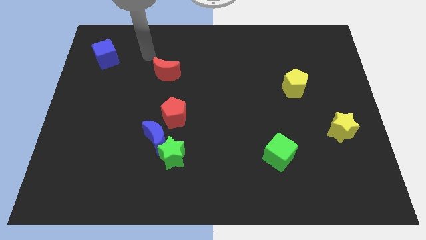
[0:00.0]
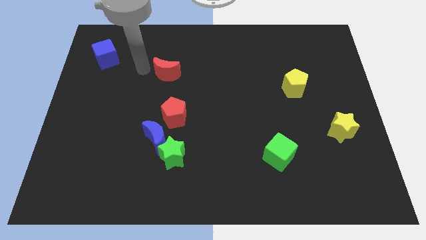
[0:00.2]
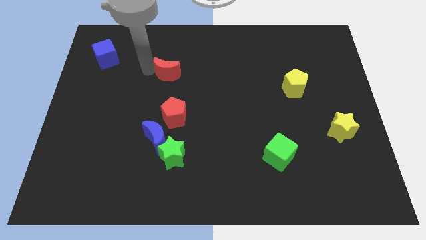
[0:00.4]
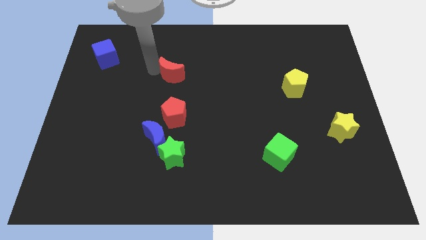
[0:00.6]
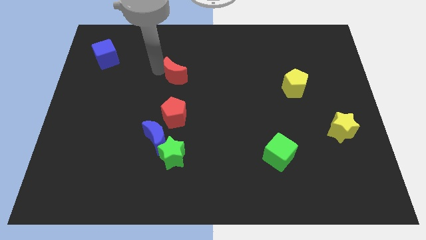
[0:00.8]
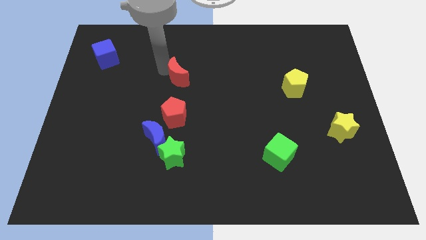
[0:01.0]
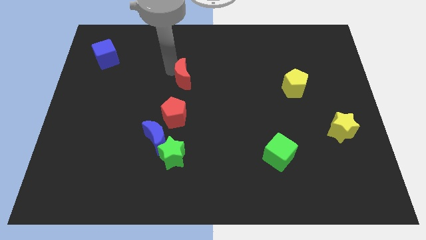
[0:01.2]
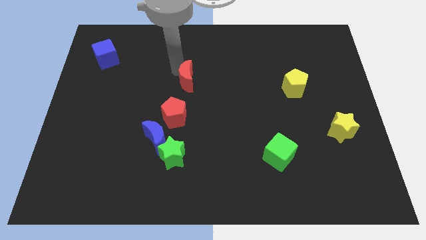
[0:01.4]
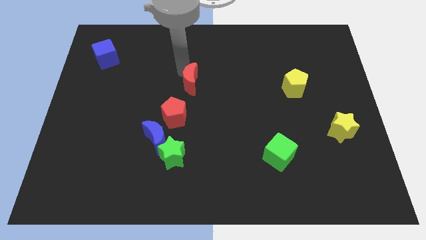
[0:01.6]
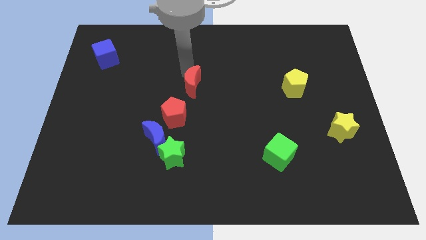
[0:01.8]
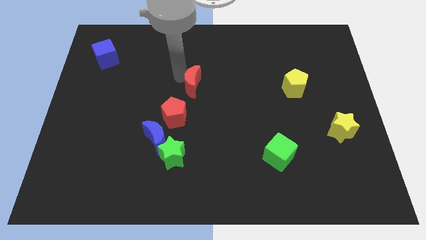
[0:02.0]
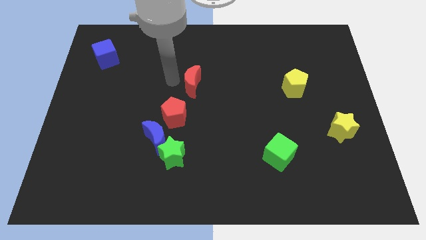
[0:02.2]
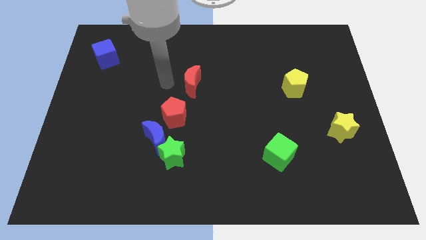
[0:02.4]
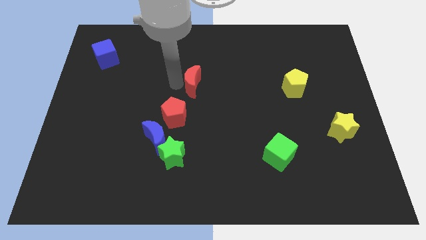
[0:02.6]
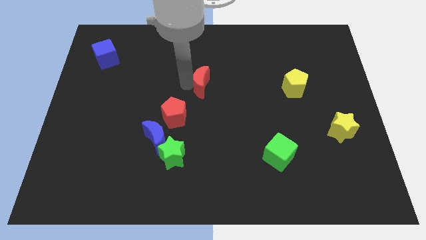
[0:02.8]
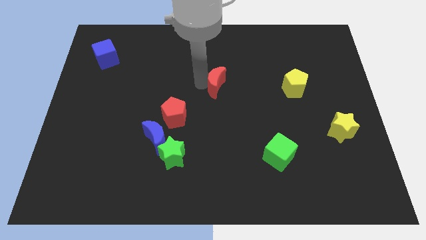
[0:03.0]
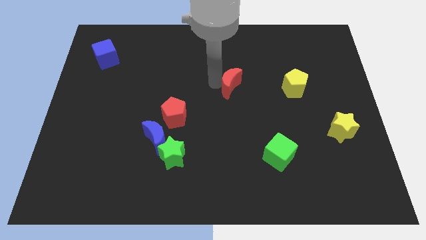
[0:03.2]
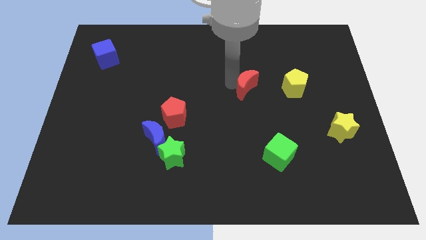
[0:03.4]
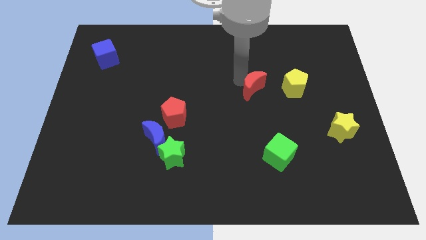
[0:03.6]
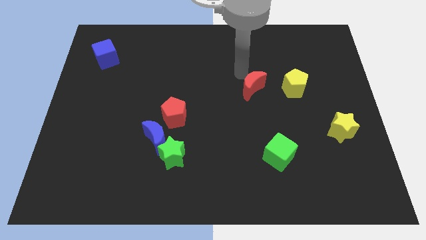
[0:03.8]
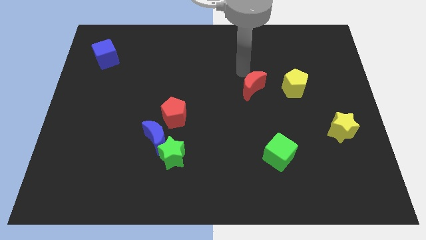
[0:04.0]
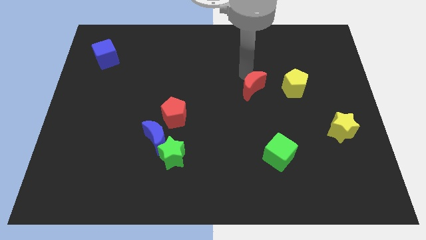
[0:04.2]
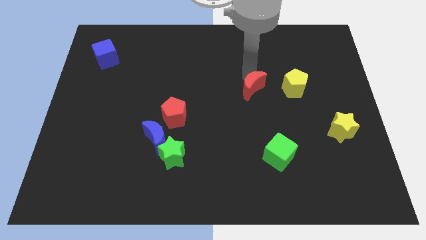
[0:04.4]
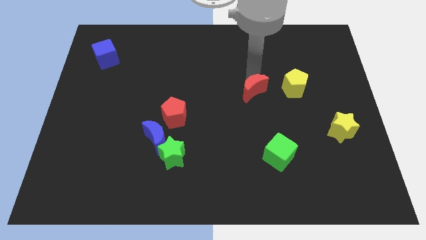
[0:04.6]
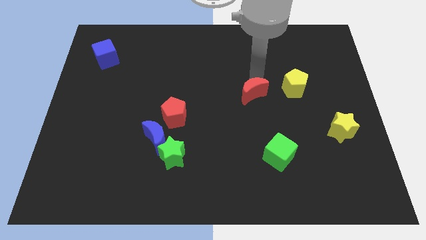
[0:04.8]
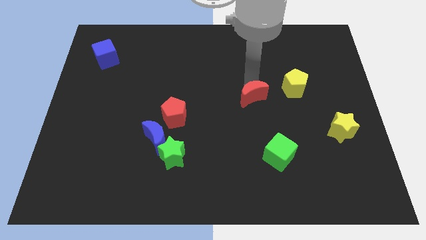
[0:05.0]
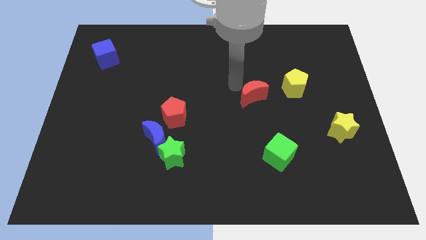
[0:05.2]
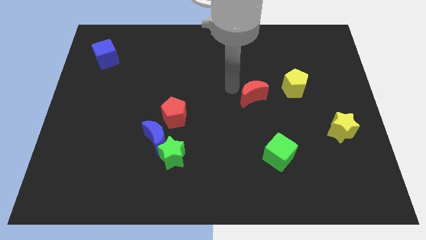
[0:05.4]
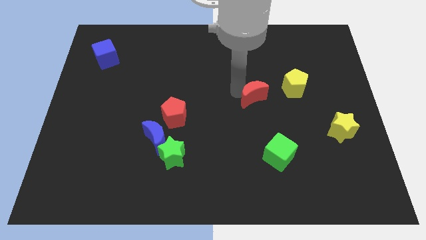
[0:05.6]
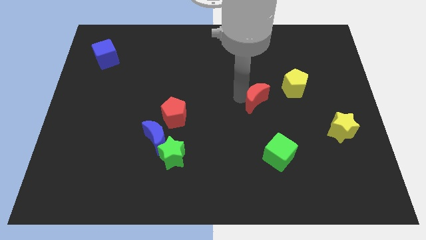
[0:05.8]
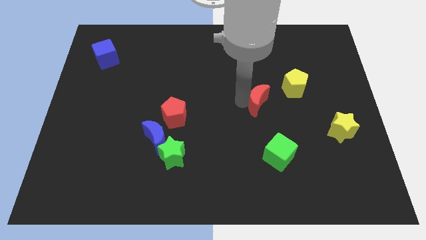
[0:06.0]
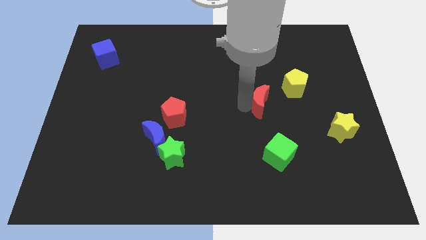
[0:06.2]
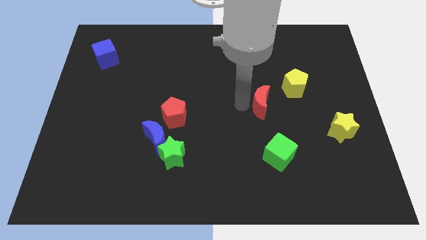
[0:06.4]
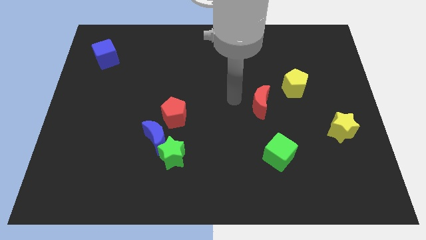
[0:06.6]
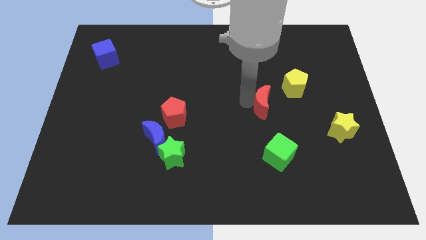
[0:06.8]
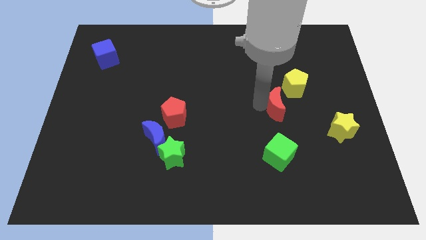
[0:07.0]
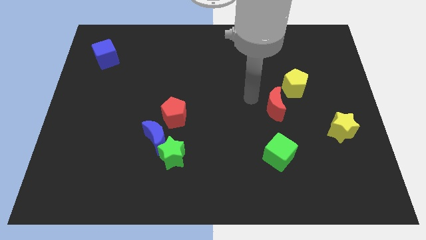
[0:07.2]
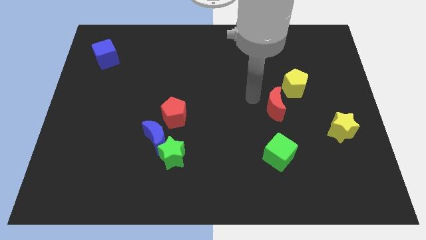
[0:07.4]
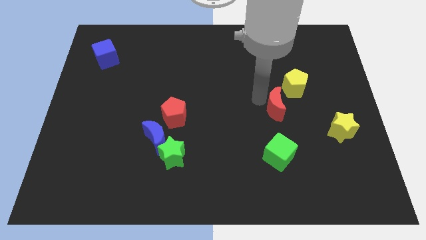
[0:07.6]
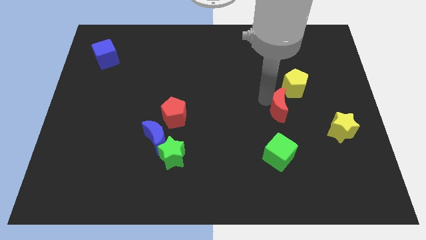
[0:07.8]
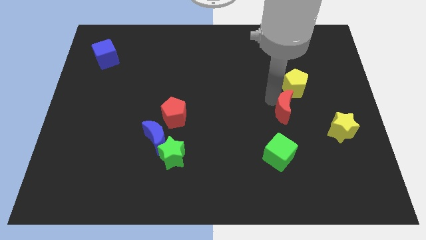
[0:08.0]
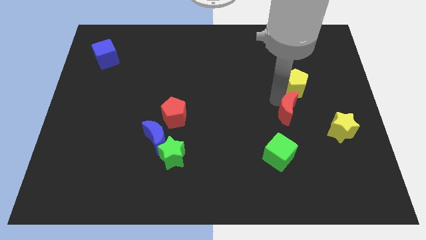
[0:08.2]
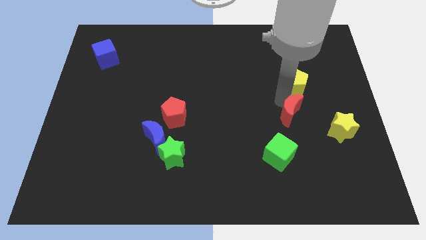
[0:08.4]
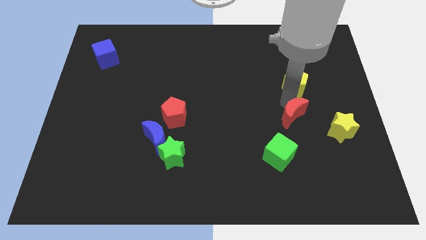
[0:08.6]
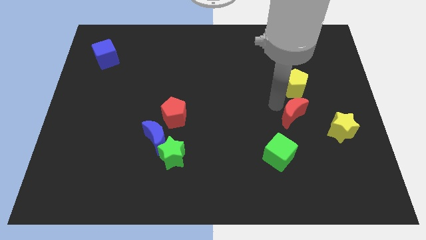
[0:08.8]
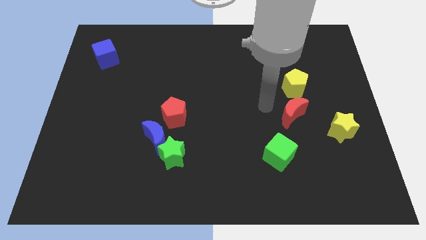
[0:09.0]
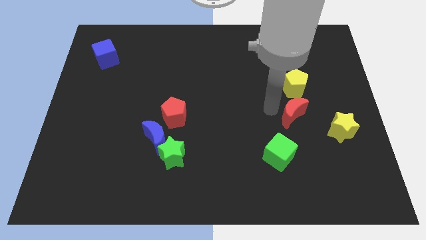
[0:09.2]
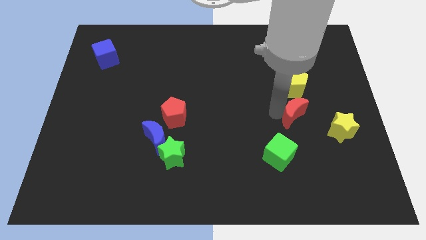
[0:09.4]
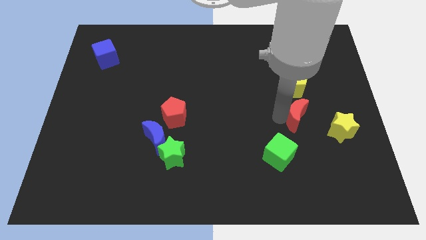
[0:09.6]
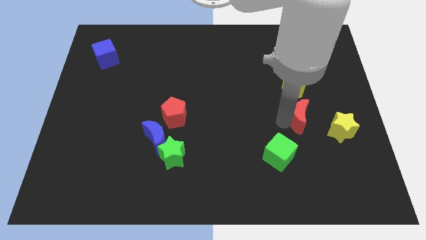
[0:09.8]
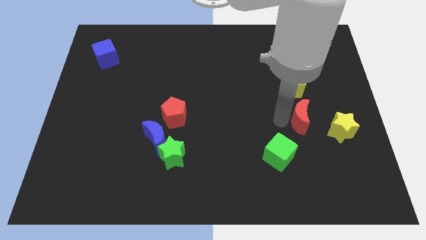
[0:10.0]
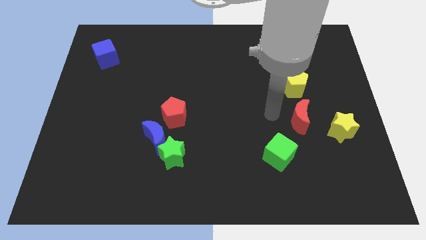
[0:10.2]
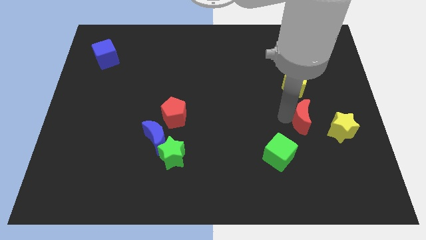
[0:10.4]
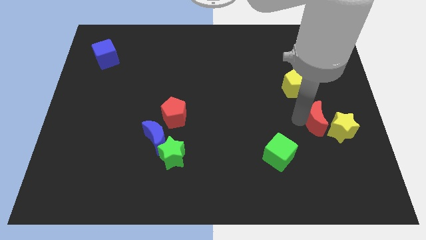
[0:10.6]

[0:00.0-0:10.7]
slide the red moon to the yellow star

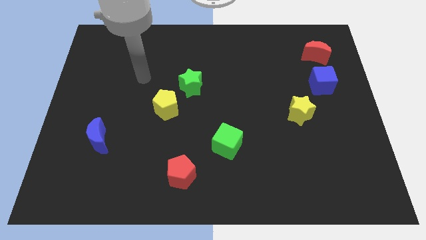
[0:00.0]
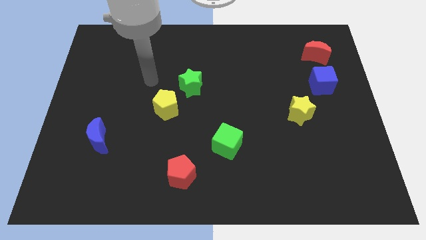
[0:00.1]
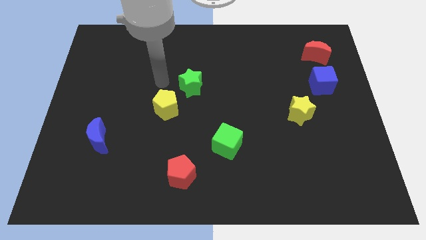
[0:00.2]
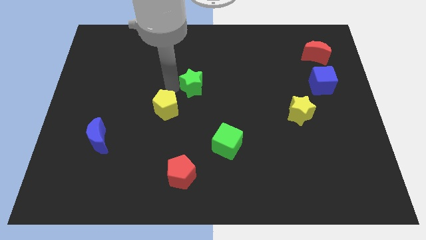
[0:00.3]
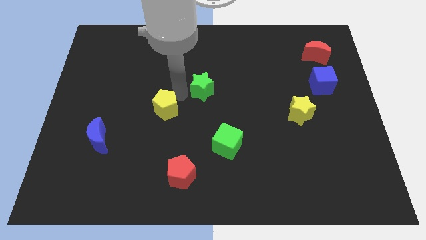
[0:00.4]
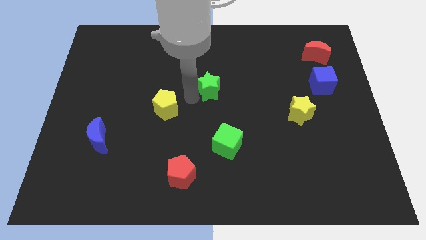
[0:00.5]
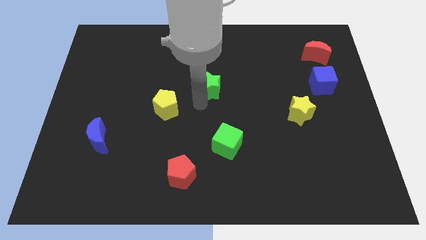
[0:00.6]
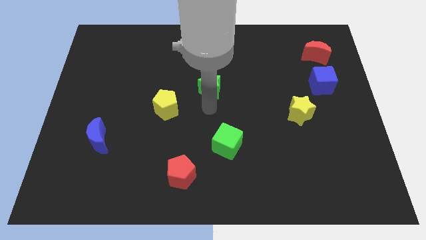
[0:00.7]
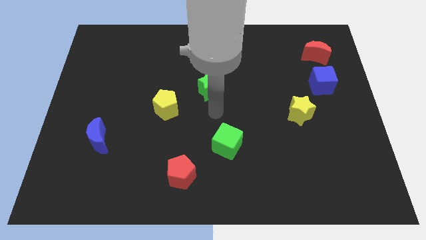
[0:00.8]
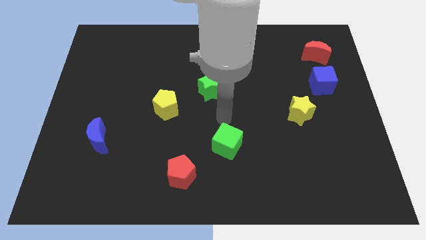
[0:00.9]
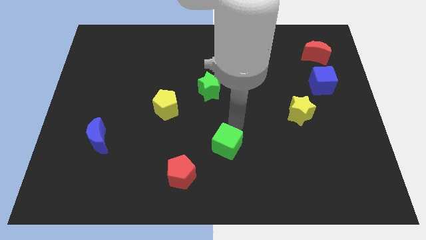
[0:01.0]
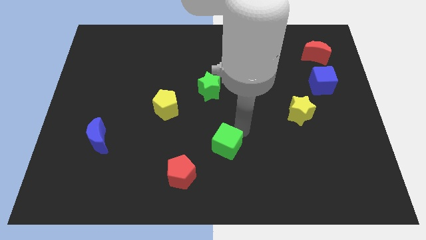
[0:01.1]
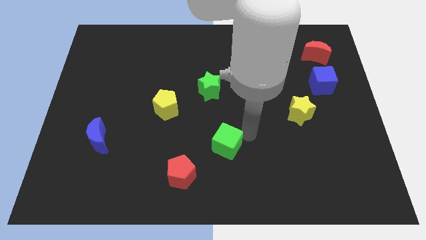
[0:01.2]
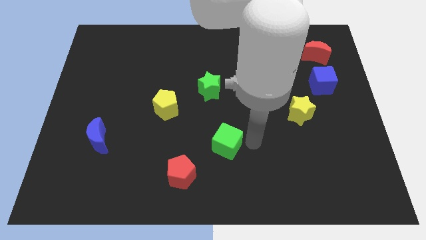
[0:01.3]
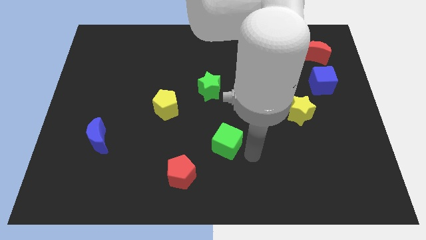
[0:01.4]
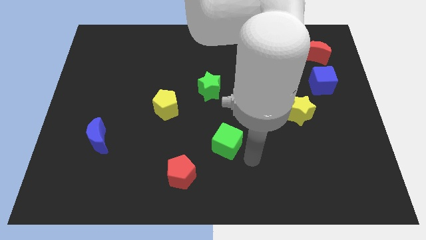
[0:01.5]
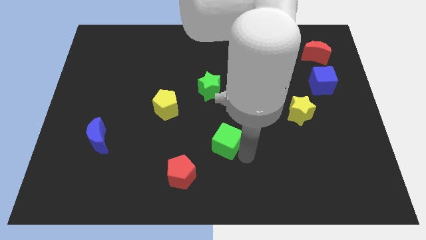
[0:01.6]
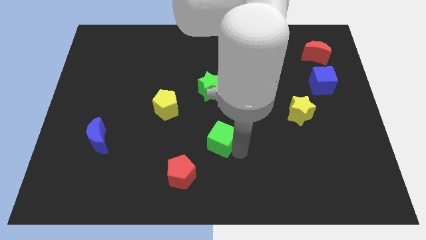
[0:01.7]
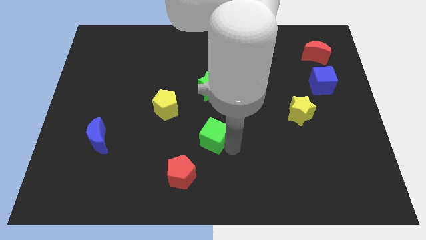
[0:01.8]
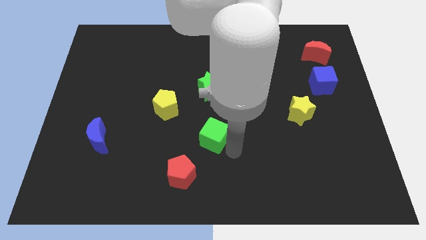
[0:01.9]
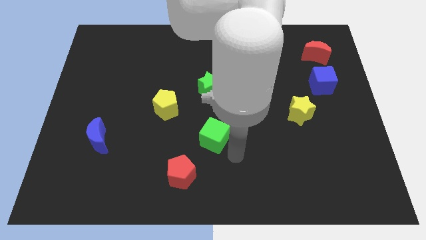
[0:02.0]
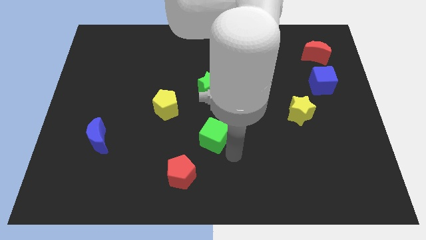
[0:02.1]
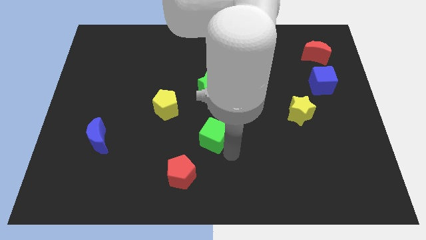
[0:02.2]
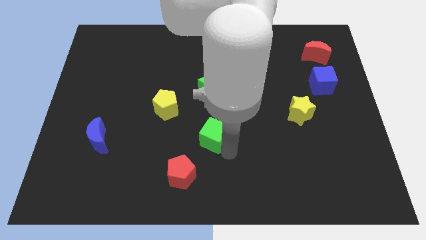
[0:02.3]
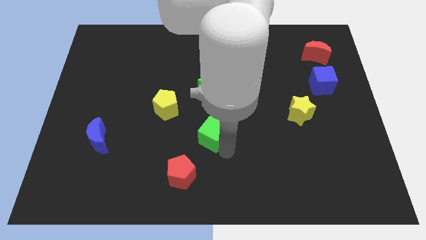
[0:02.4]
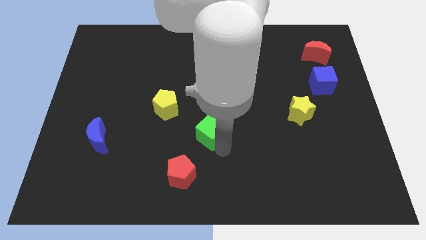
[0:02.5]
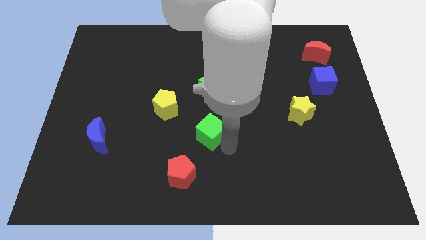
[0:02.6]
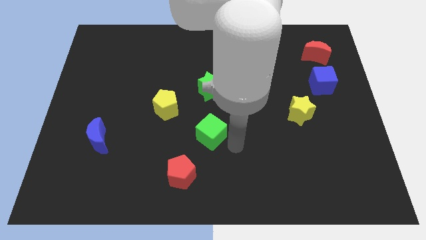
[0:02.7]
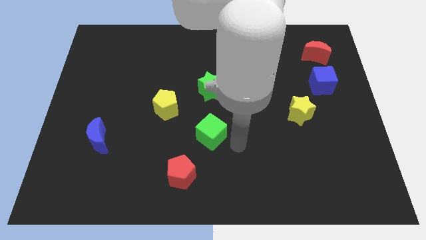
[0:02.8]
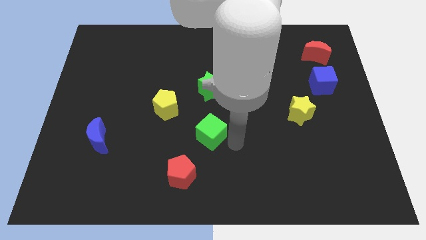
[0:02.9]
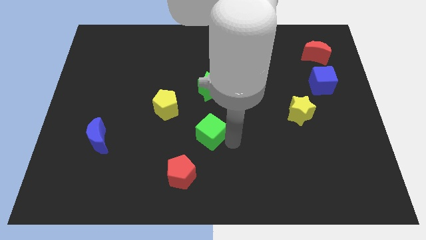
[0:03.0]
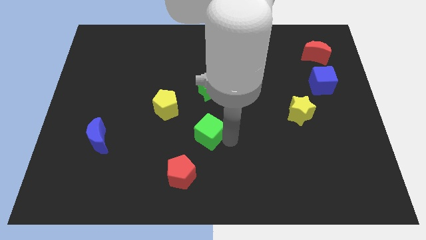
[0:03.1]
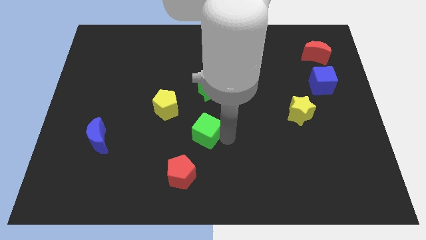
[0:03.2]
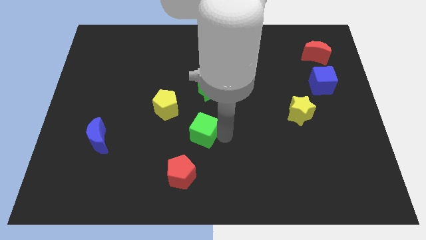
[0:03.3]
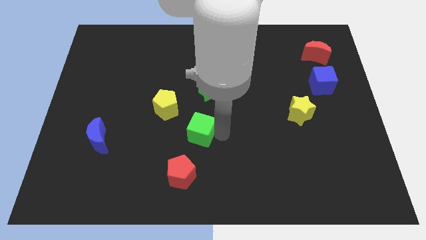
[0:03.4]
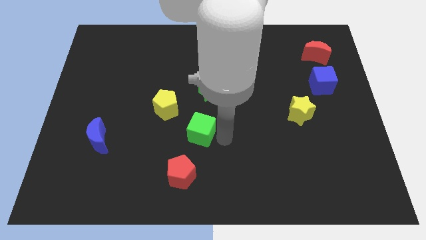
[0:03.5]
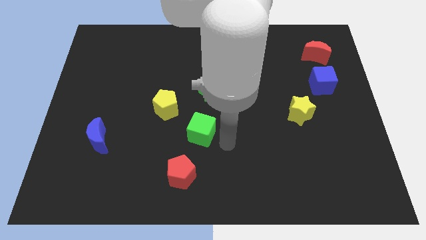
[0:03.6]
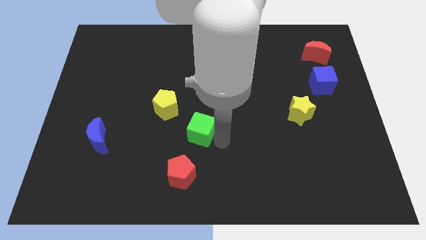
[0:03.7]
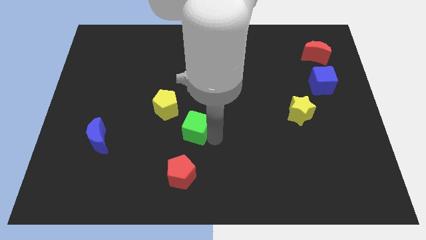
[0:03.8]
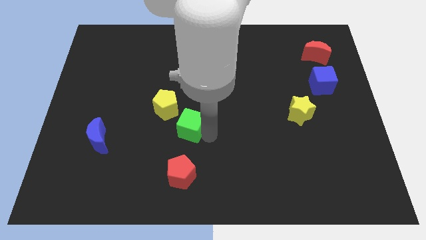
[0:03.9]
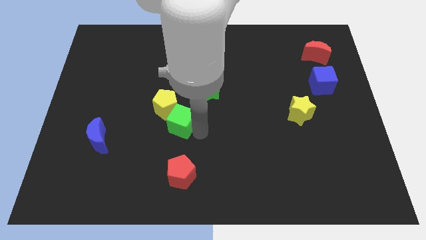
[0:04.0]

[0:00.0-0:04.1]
slide the green cube towards the yellow pentagon
